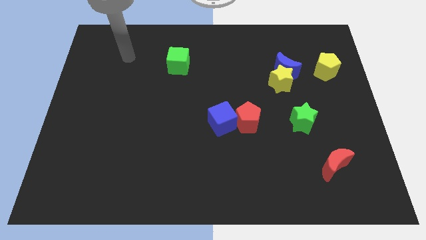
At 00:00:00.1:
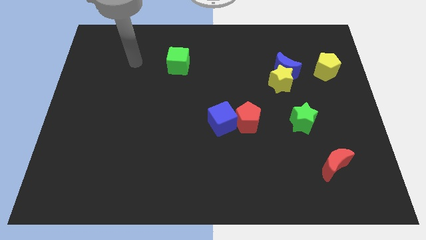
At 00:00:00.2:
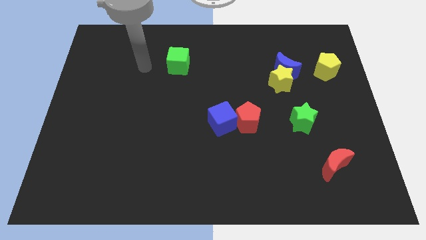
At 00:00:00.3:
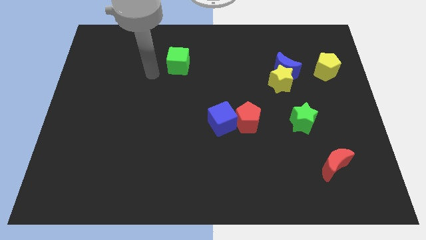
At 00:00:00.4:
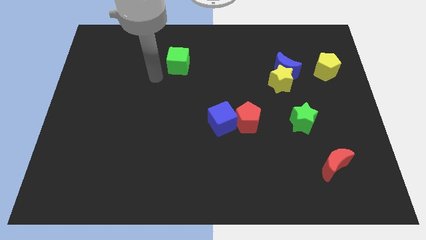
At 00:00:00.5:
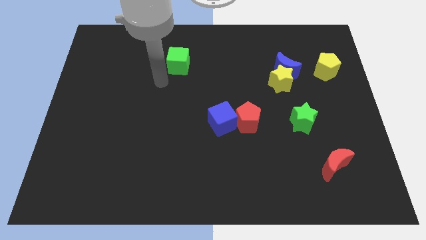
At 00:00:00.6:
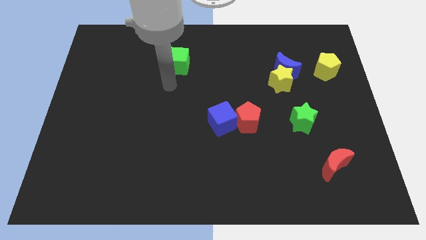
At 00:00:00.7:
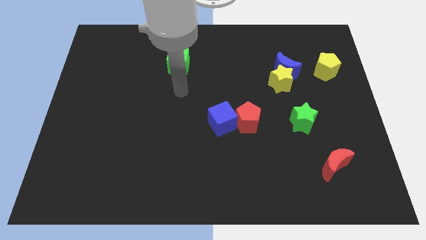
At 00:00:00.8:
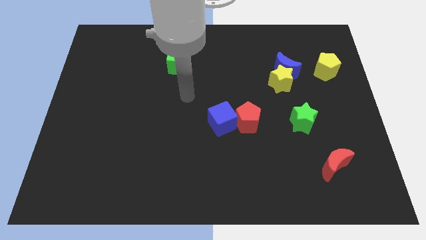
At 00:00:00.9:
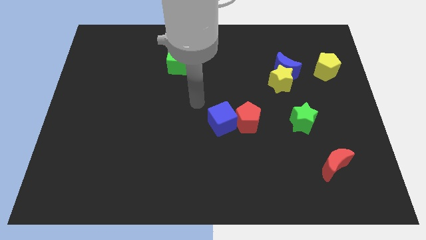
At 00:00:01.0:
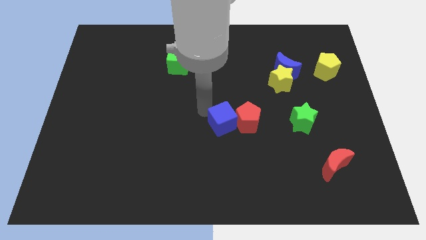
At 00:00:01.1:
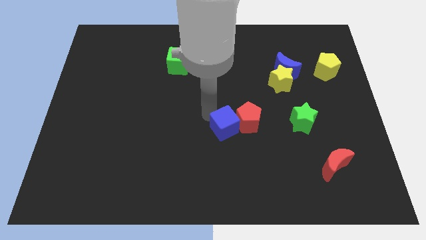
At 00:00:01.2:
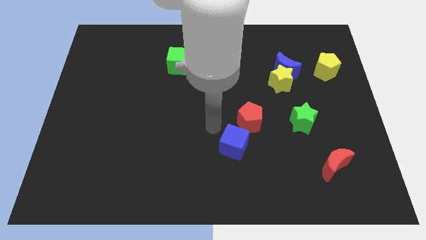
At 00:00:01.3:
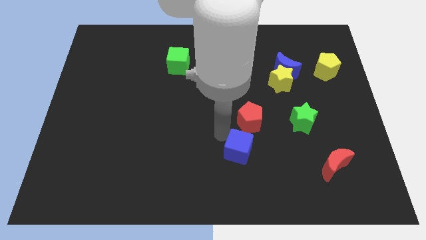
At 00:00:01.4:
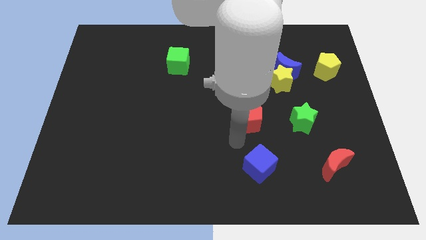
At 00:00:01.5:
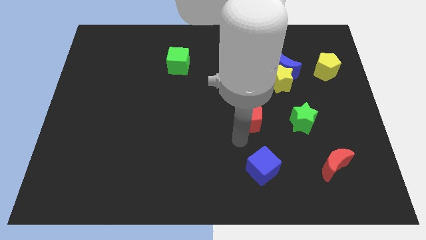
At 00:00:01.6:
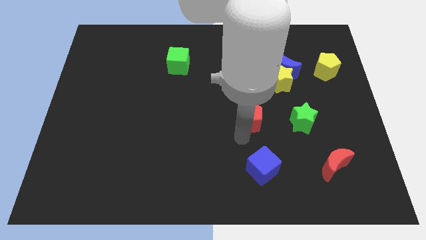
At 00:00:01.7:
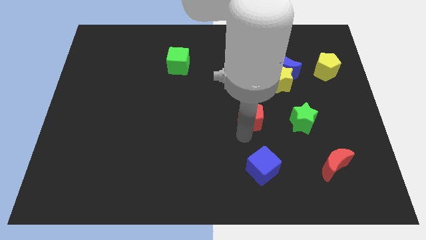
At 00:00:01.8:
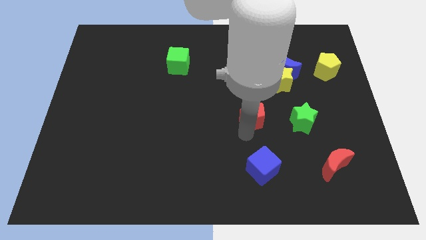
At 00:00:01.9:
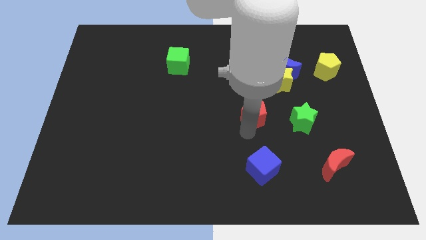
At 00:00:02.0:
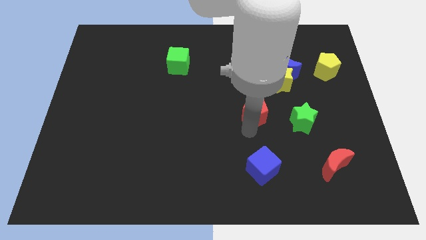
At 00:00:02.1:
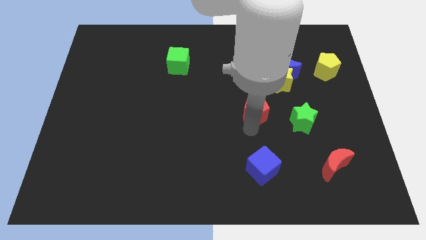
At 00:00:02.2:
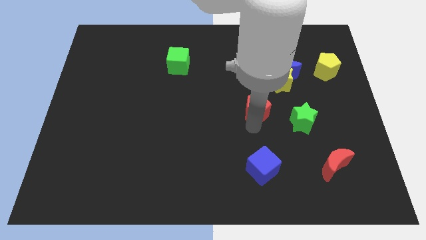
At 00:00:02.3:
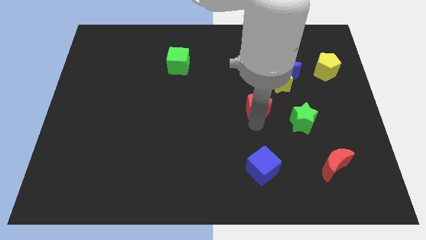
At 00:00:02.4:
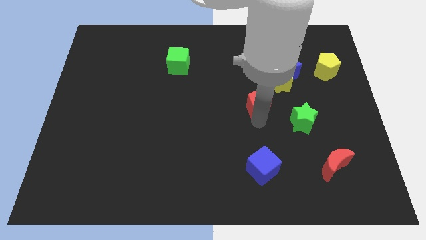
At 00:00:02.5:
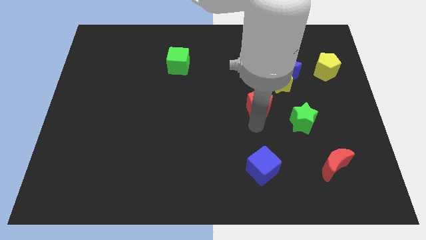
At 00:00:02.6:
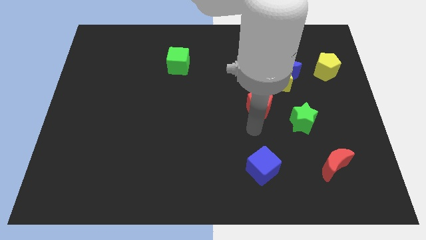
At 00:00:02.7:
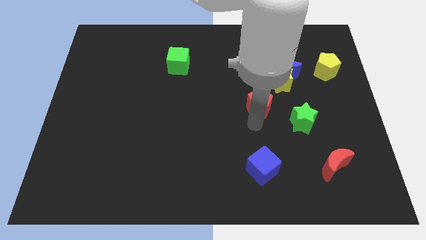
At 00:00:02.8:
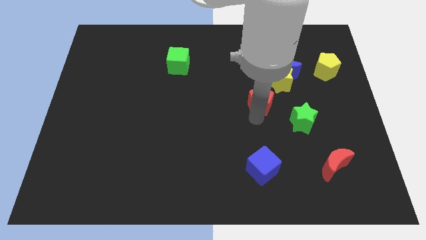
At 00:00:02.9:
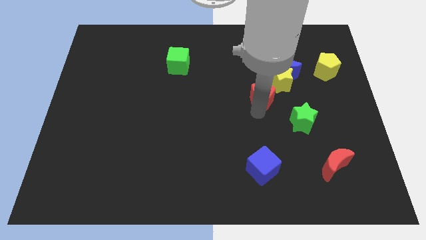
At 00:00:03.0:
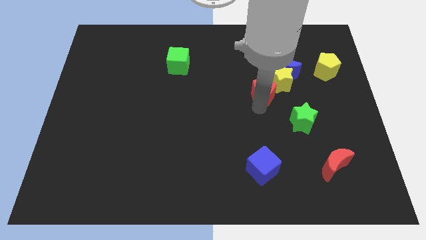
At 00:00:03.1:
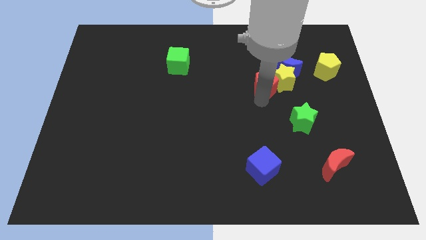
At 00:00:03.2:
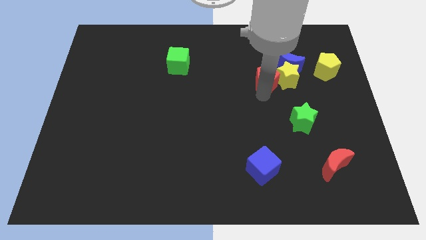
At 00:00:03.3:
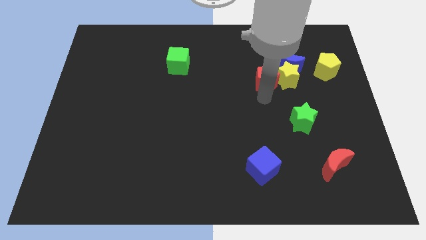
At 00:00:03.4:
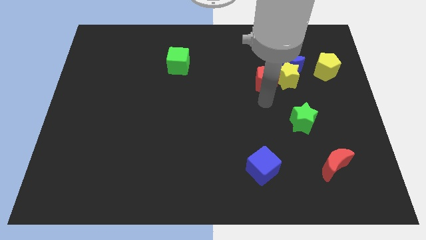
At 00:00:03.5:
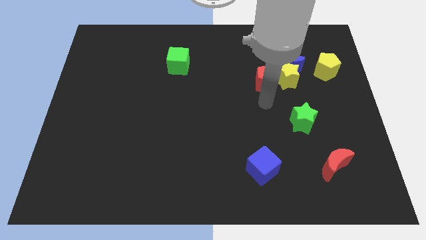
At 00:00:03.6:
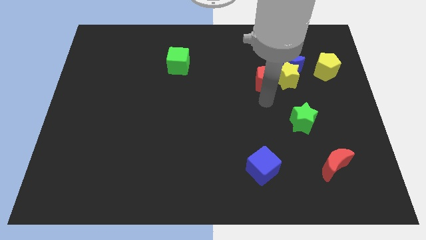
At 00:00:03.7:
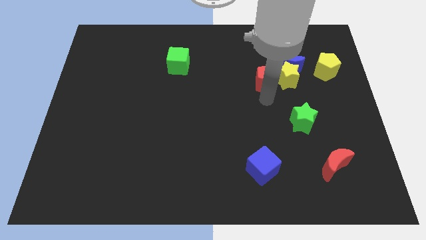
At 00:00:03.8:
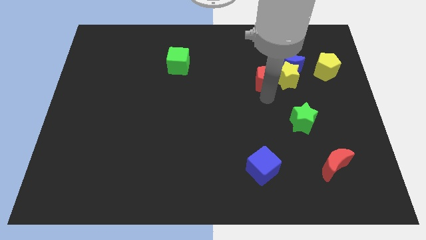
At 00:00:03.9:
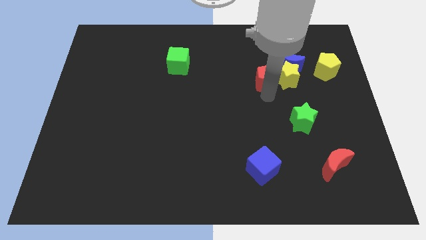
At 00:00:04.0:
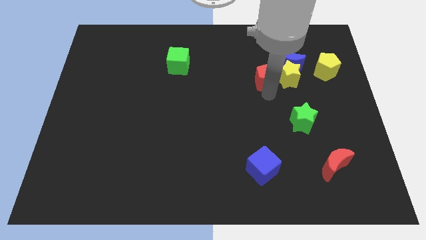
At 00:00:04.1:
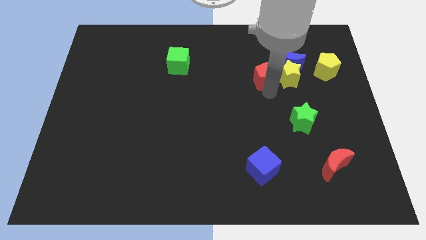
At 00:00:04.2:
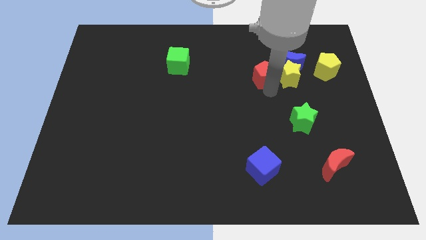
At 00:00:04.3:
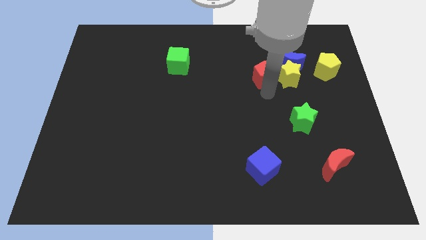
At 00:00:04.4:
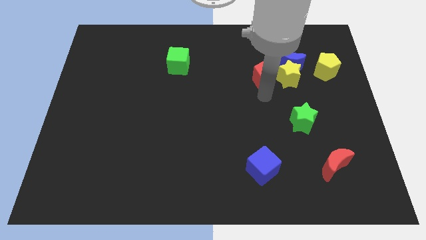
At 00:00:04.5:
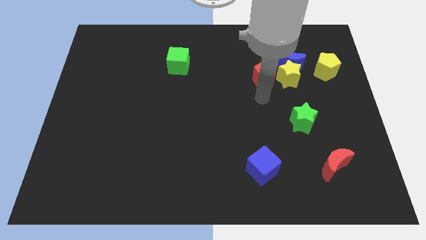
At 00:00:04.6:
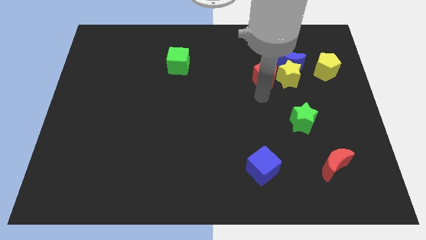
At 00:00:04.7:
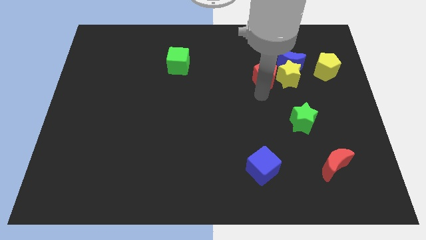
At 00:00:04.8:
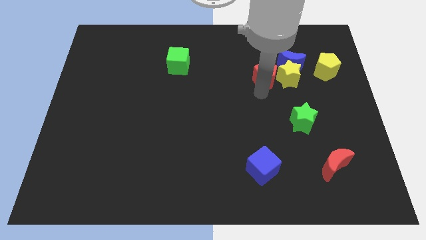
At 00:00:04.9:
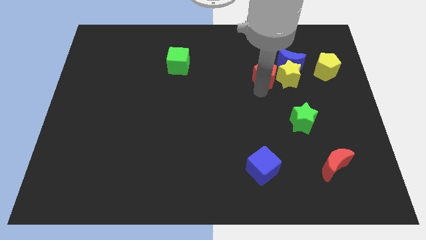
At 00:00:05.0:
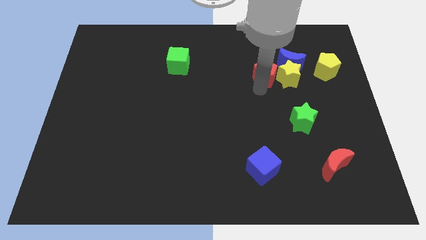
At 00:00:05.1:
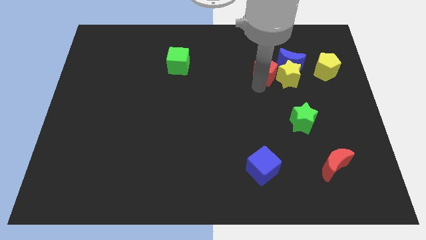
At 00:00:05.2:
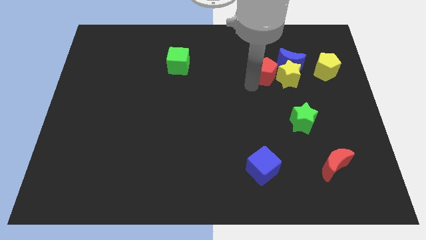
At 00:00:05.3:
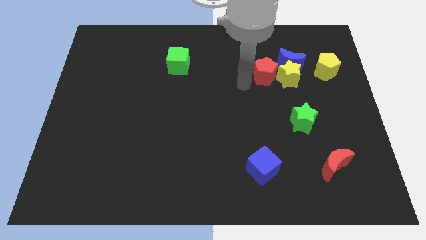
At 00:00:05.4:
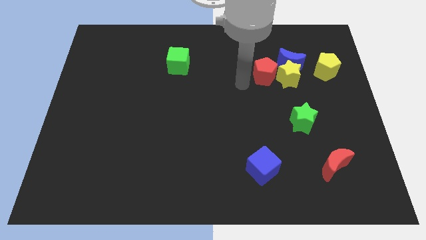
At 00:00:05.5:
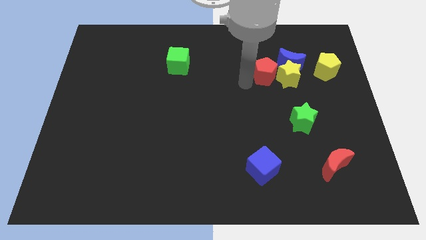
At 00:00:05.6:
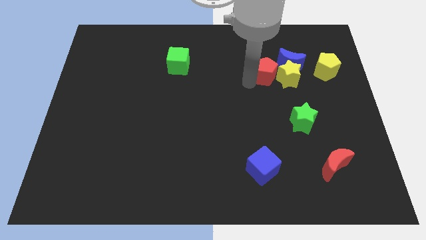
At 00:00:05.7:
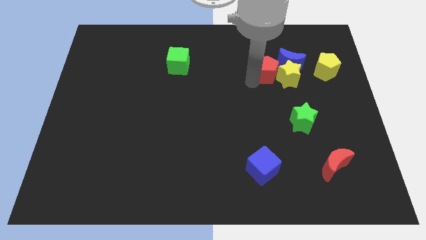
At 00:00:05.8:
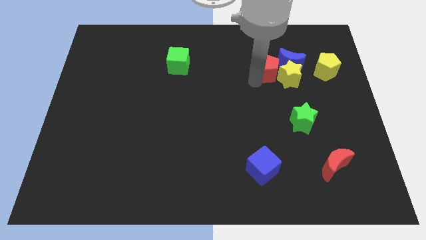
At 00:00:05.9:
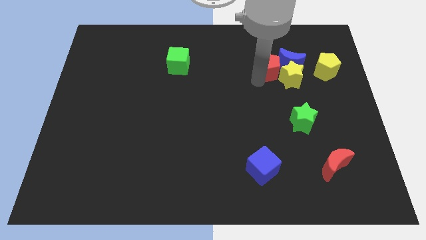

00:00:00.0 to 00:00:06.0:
put the red pentagon to the blue moon

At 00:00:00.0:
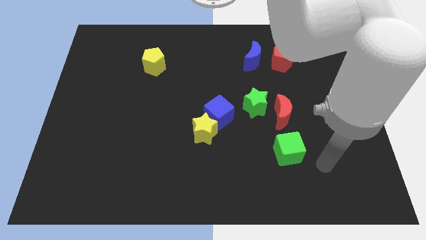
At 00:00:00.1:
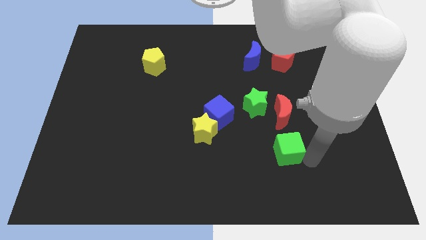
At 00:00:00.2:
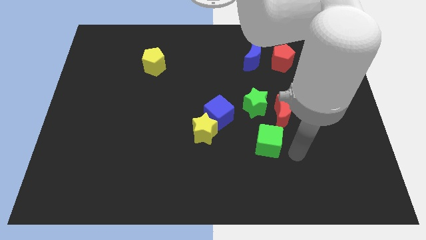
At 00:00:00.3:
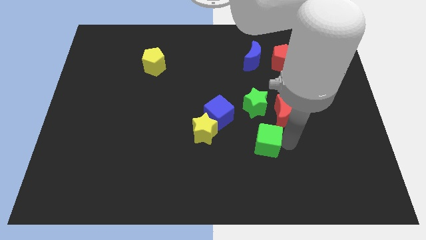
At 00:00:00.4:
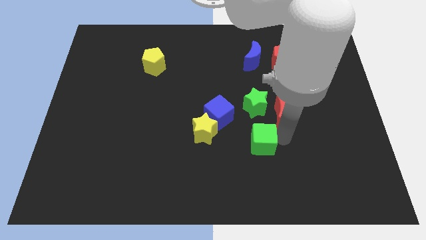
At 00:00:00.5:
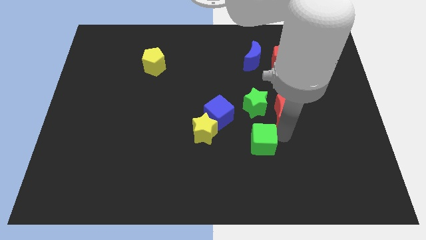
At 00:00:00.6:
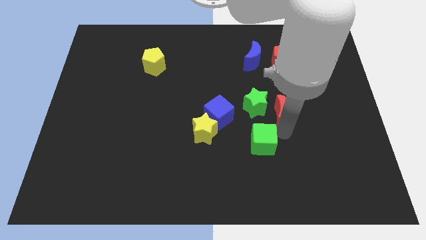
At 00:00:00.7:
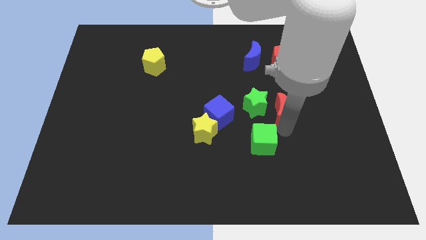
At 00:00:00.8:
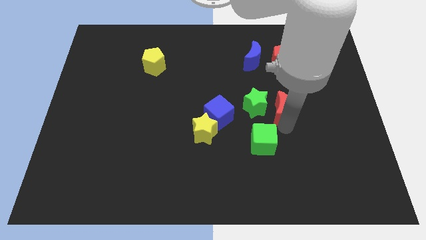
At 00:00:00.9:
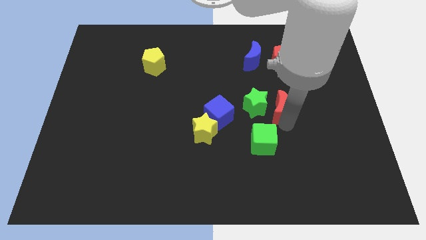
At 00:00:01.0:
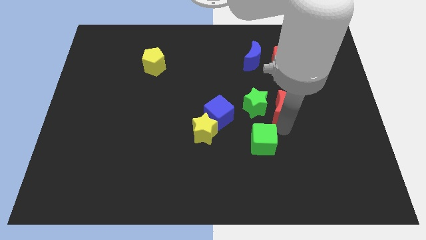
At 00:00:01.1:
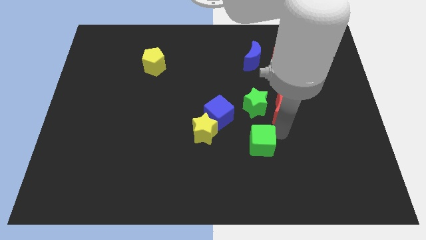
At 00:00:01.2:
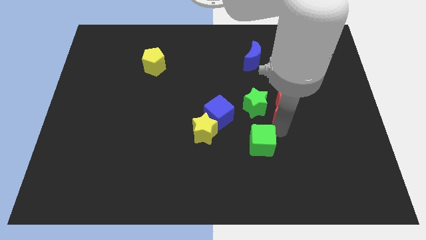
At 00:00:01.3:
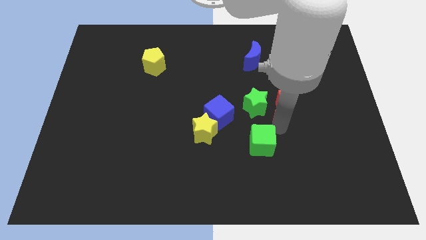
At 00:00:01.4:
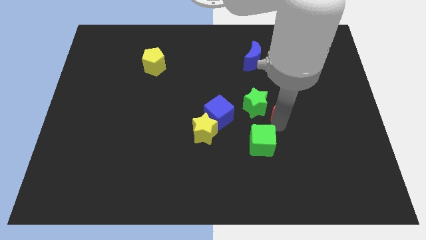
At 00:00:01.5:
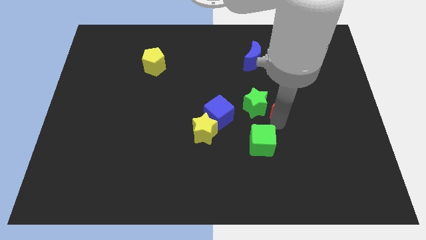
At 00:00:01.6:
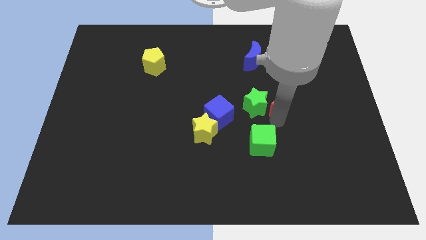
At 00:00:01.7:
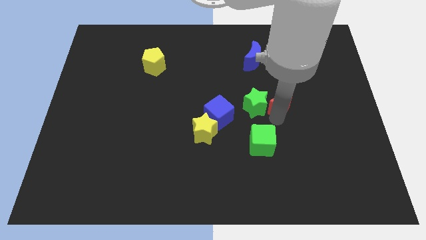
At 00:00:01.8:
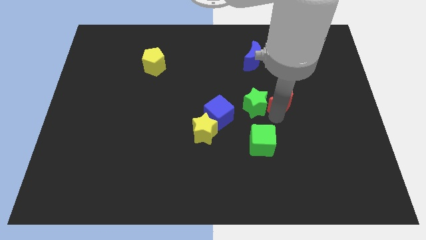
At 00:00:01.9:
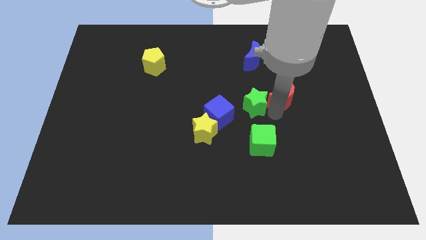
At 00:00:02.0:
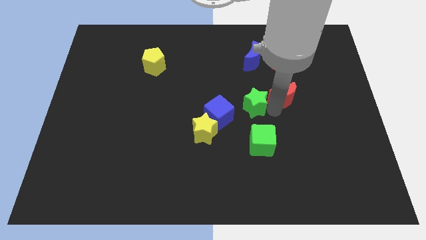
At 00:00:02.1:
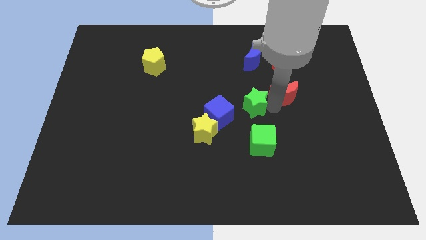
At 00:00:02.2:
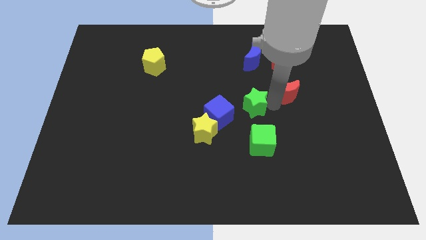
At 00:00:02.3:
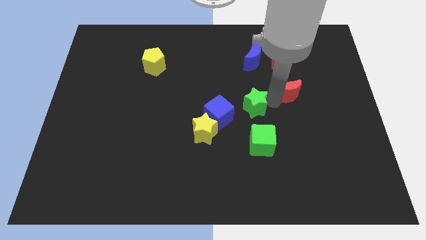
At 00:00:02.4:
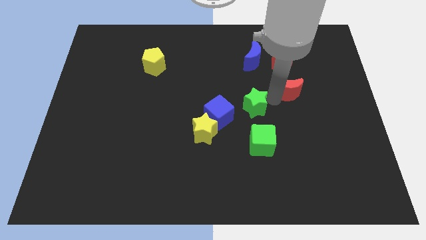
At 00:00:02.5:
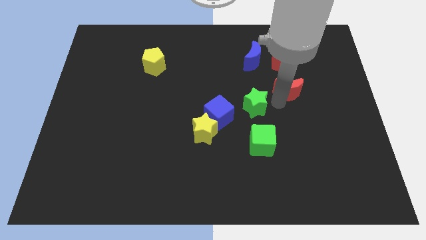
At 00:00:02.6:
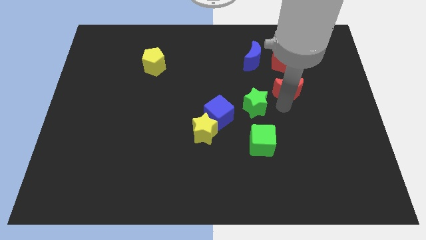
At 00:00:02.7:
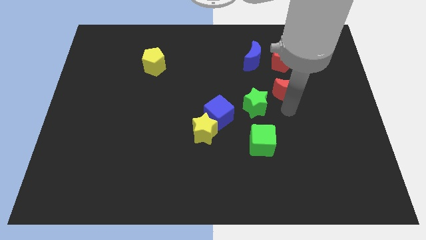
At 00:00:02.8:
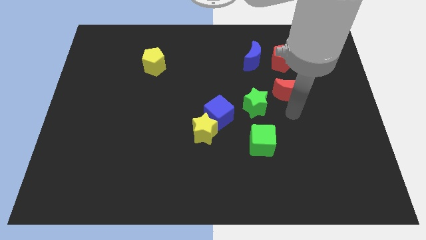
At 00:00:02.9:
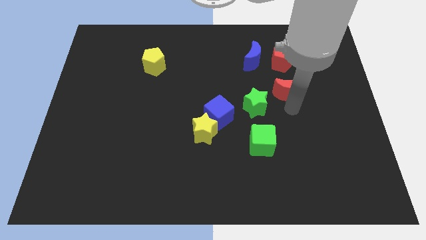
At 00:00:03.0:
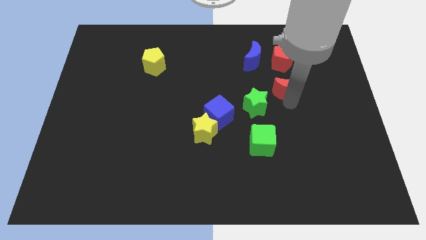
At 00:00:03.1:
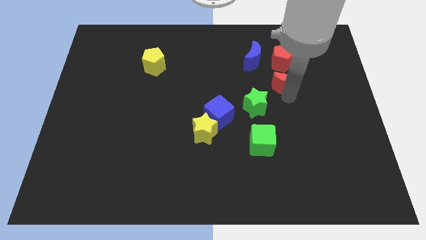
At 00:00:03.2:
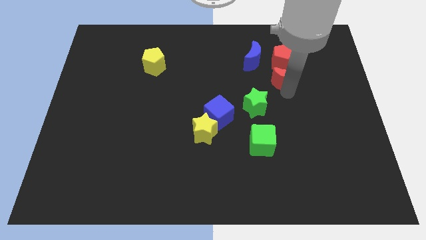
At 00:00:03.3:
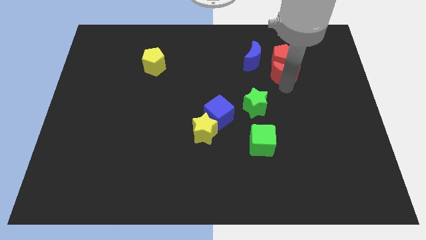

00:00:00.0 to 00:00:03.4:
move the red moon next to the red pentagon
